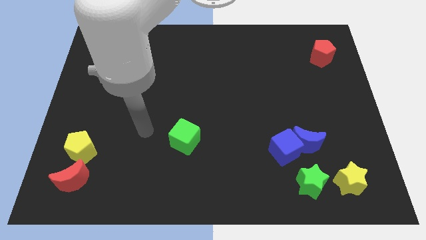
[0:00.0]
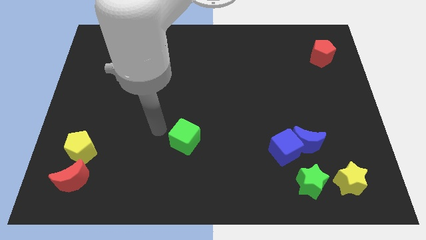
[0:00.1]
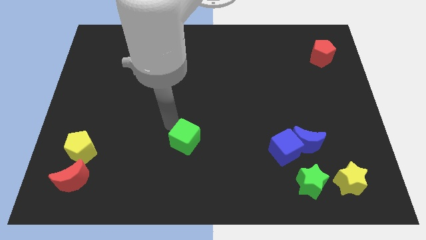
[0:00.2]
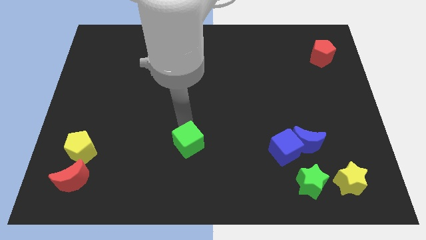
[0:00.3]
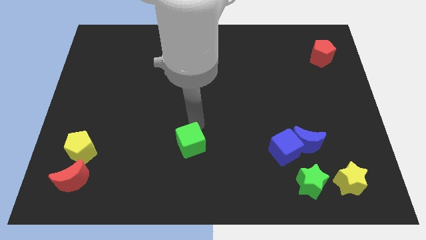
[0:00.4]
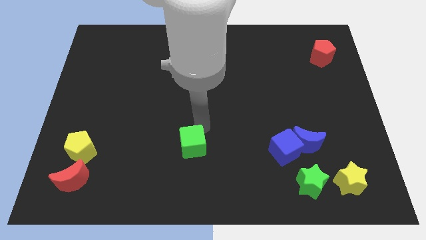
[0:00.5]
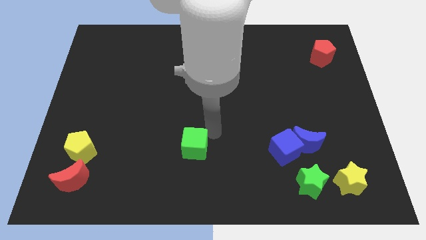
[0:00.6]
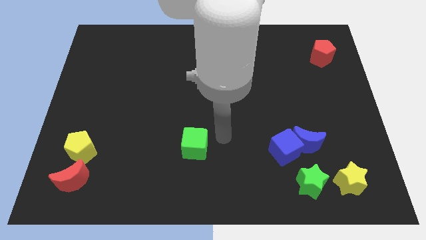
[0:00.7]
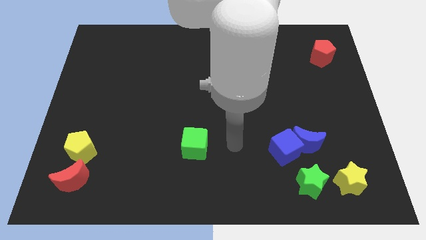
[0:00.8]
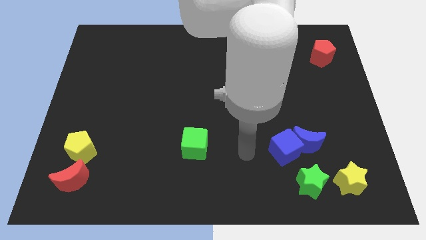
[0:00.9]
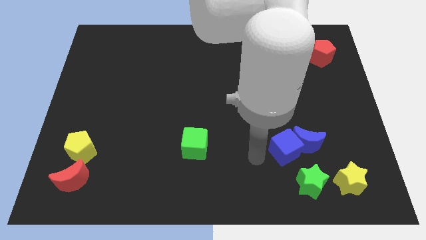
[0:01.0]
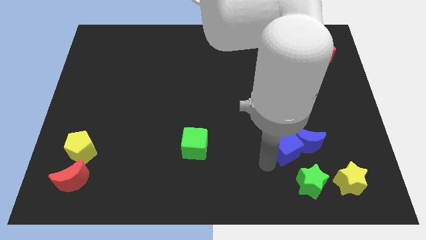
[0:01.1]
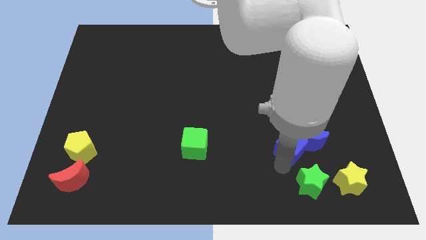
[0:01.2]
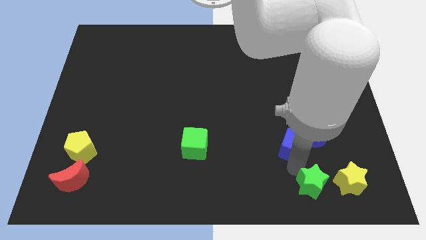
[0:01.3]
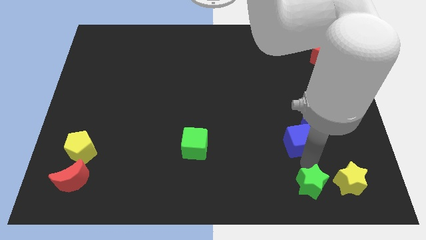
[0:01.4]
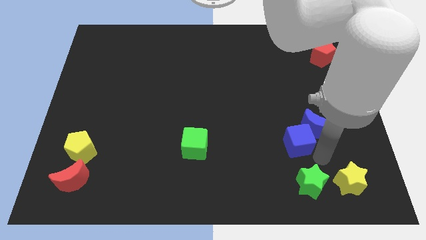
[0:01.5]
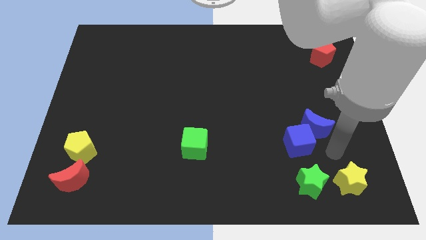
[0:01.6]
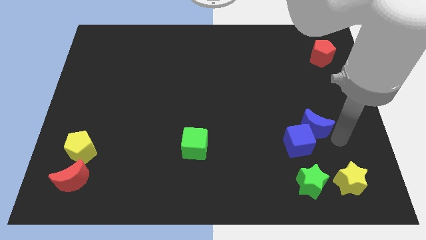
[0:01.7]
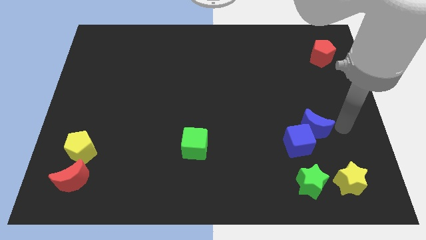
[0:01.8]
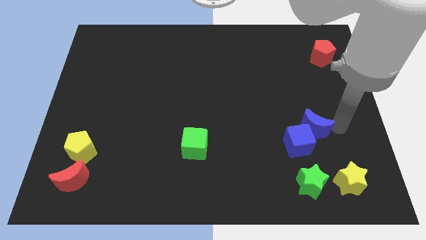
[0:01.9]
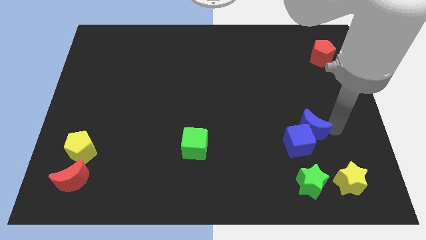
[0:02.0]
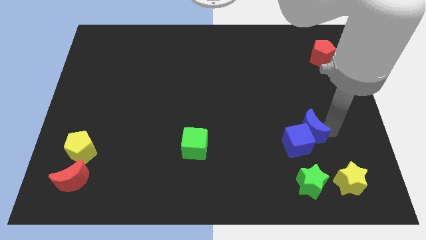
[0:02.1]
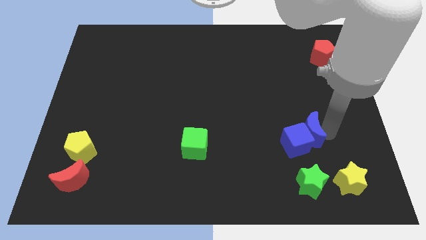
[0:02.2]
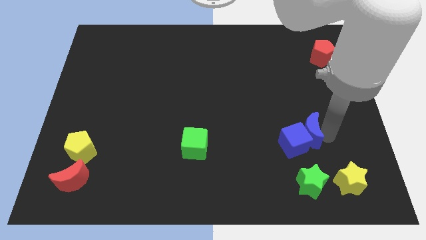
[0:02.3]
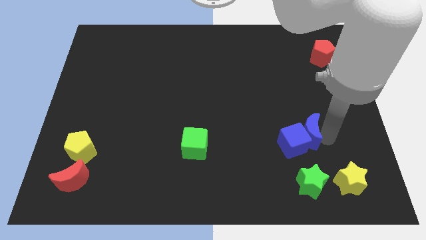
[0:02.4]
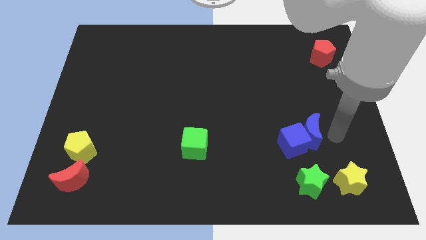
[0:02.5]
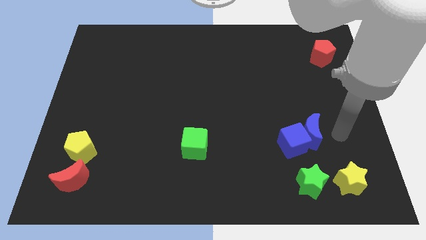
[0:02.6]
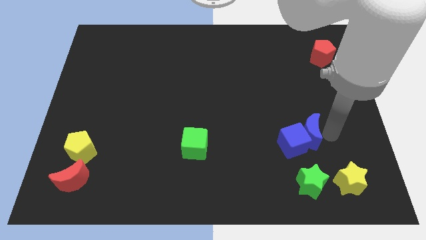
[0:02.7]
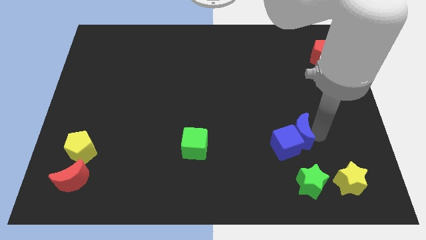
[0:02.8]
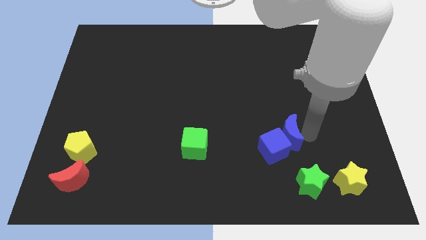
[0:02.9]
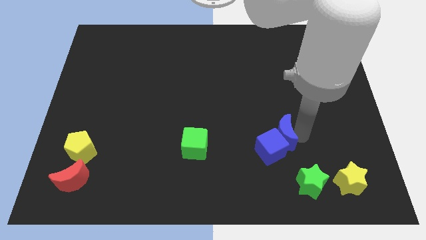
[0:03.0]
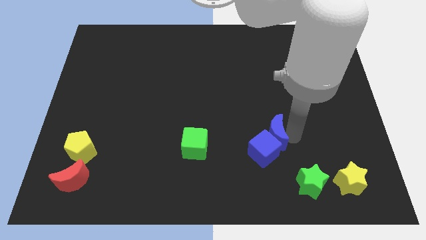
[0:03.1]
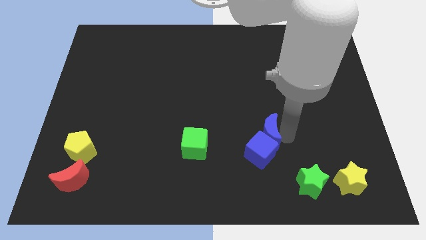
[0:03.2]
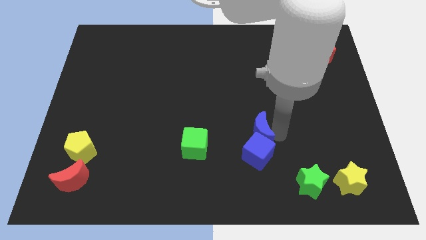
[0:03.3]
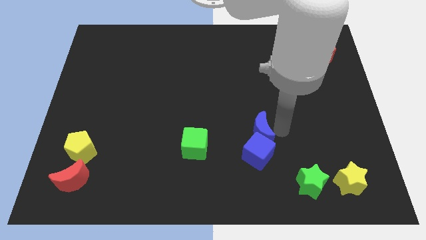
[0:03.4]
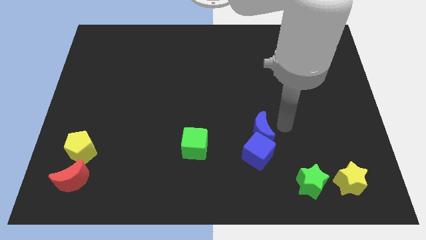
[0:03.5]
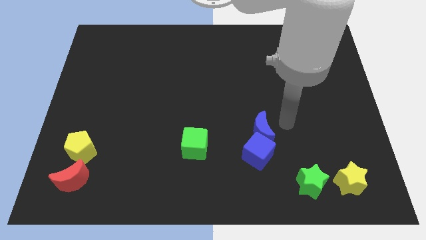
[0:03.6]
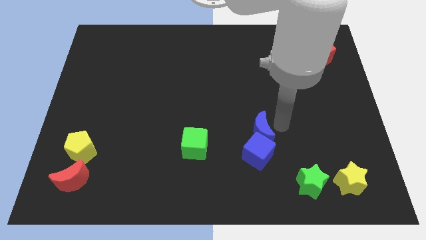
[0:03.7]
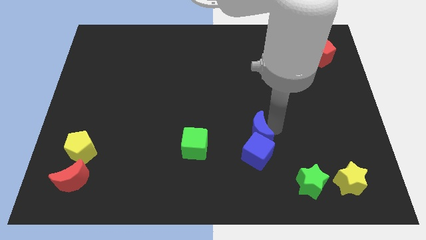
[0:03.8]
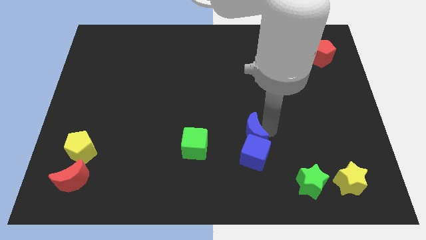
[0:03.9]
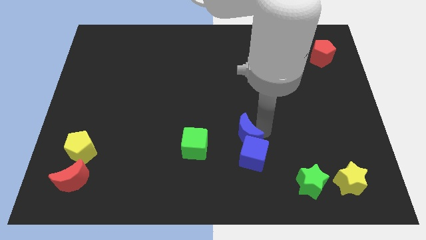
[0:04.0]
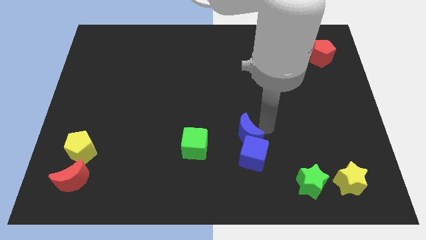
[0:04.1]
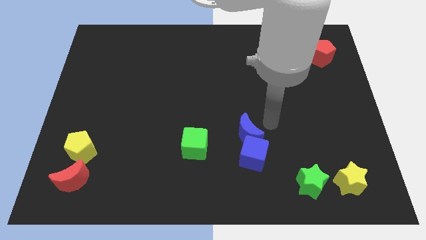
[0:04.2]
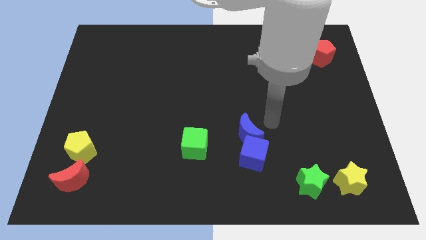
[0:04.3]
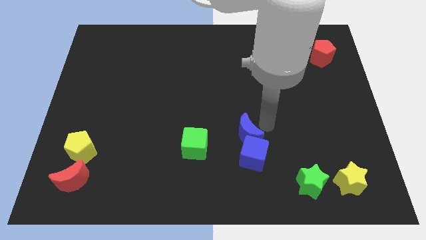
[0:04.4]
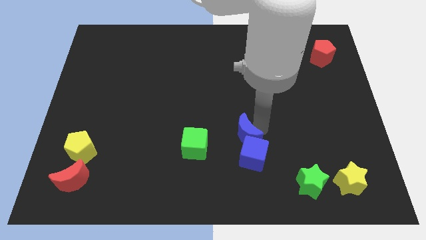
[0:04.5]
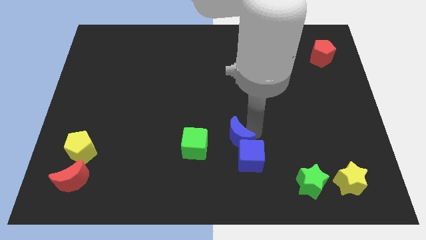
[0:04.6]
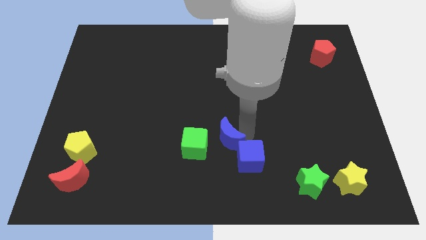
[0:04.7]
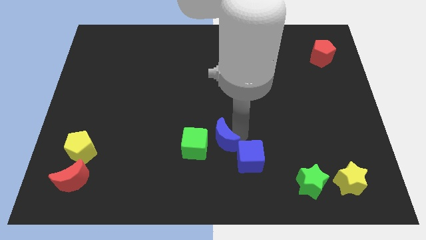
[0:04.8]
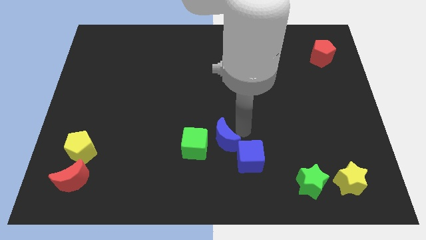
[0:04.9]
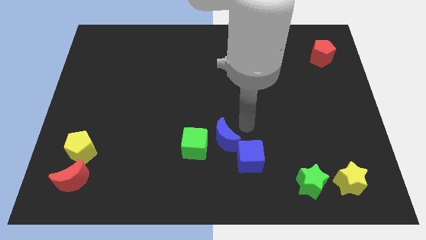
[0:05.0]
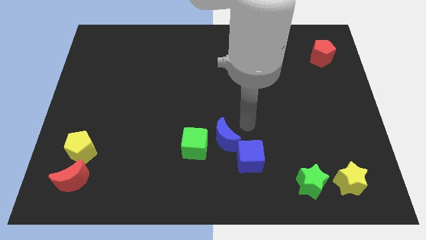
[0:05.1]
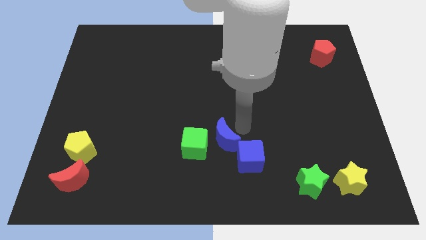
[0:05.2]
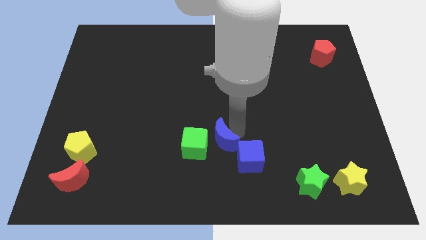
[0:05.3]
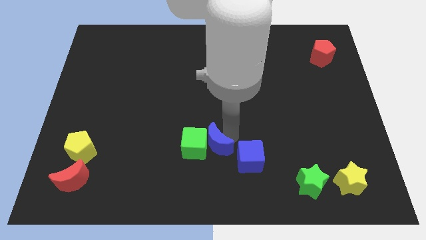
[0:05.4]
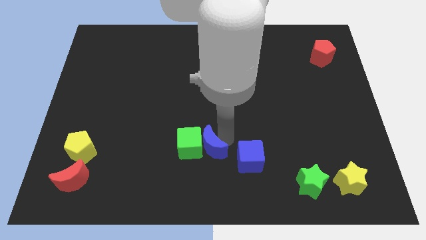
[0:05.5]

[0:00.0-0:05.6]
slide the blue moon left

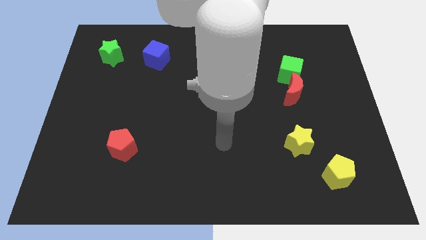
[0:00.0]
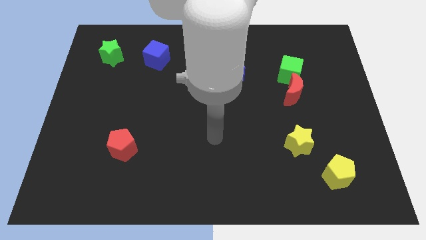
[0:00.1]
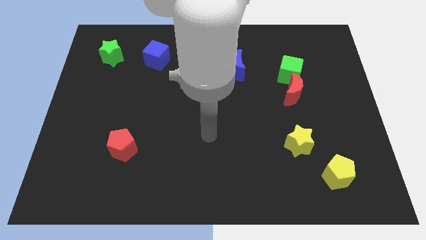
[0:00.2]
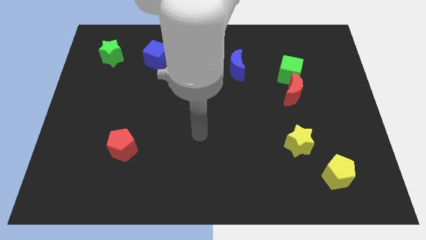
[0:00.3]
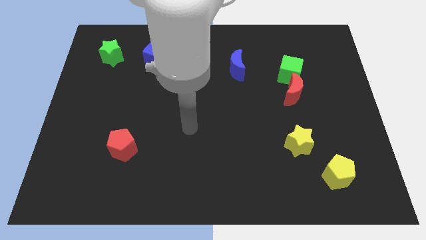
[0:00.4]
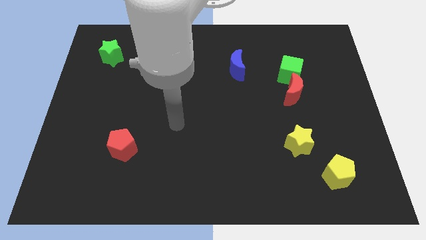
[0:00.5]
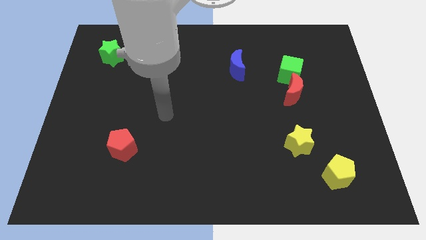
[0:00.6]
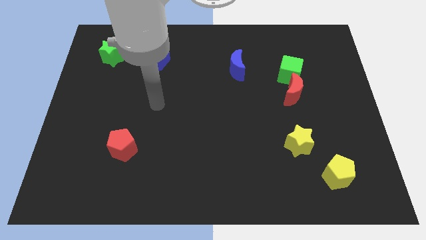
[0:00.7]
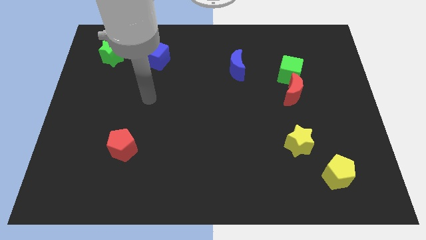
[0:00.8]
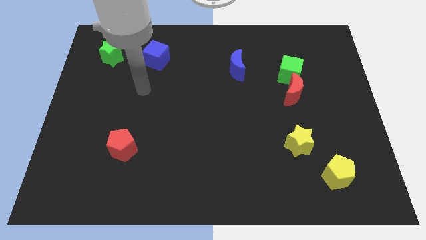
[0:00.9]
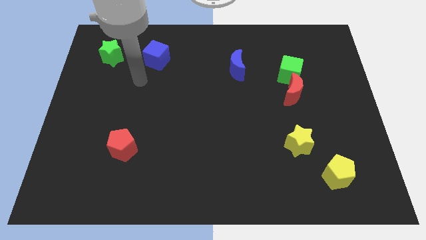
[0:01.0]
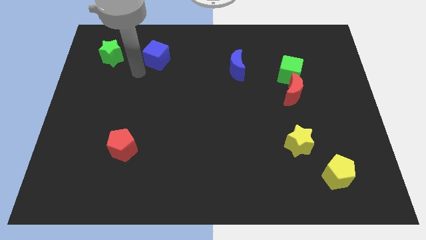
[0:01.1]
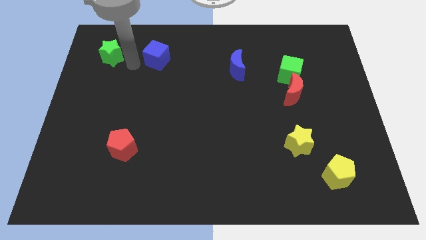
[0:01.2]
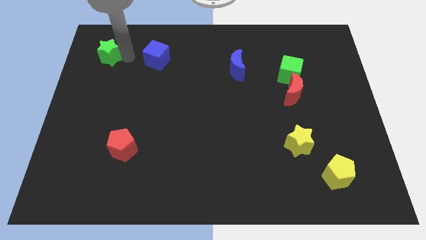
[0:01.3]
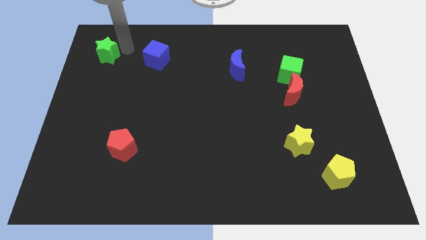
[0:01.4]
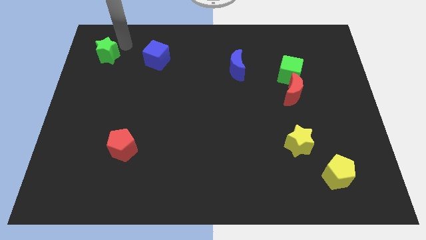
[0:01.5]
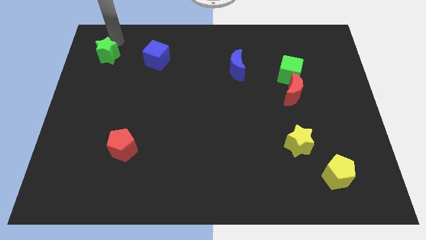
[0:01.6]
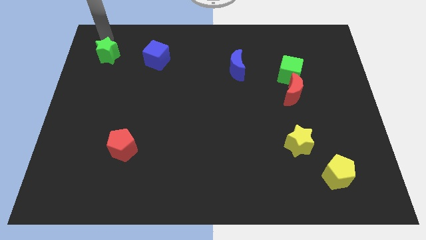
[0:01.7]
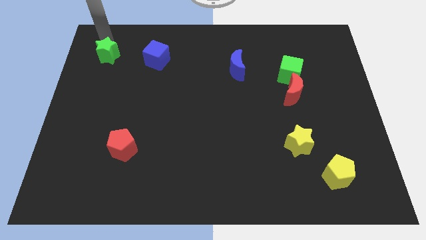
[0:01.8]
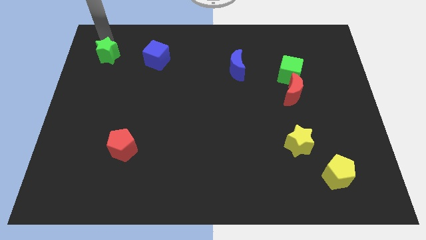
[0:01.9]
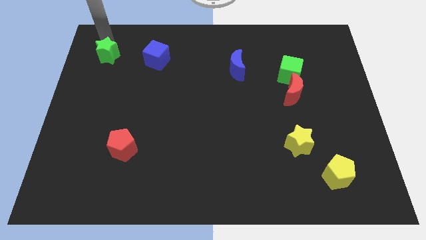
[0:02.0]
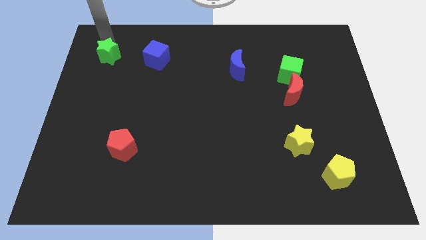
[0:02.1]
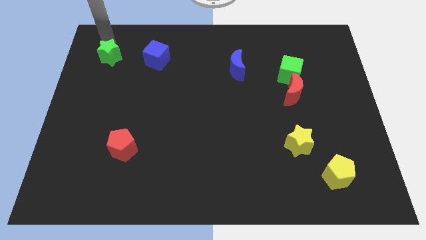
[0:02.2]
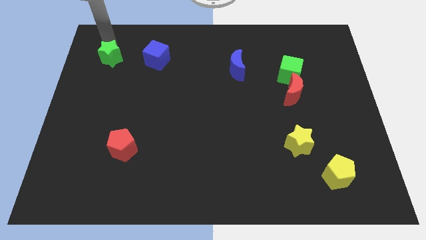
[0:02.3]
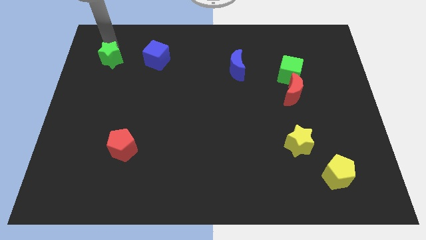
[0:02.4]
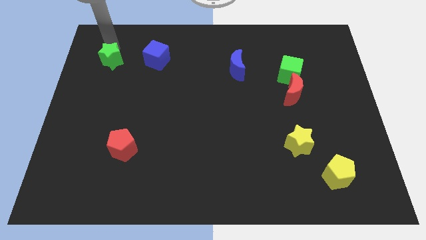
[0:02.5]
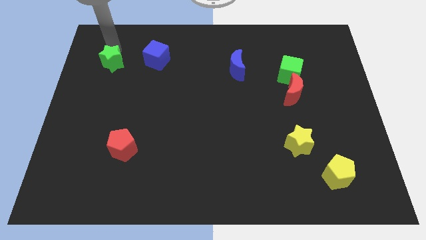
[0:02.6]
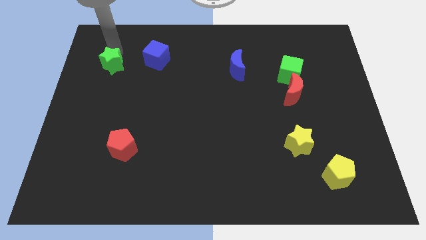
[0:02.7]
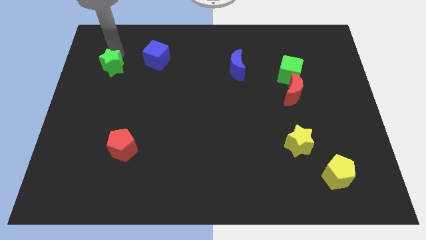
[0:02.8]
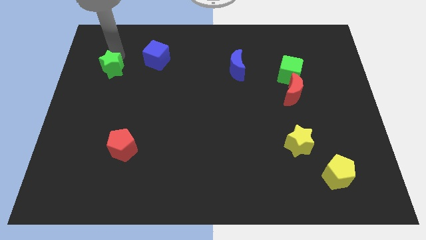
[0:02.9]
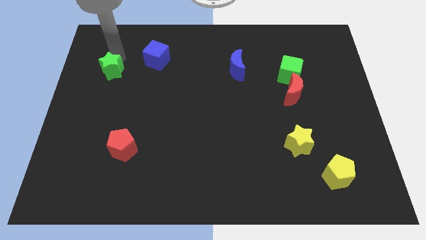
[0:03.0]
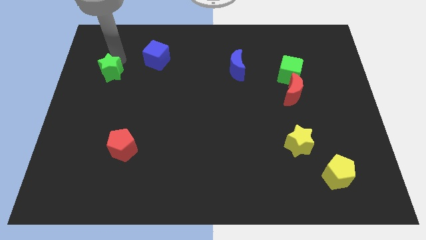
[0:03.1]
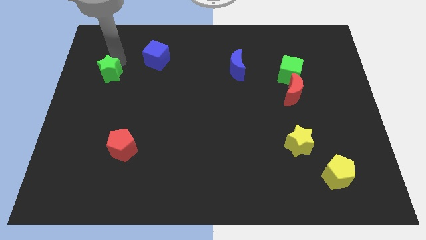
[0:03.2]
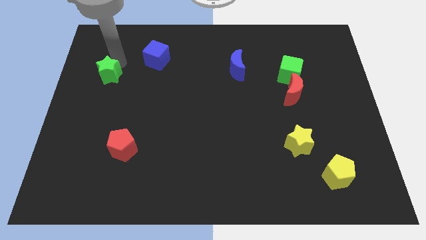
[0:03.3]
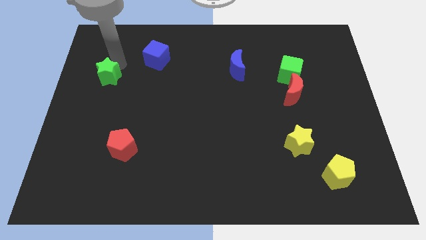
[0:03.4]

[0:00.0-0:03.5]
slightly push the green star downwards
